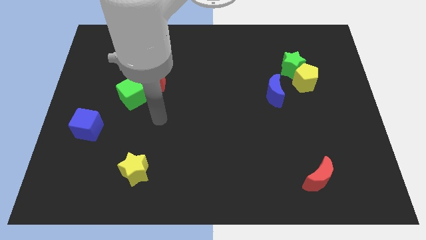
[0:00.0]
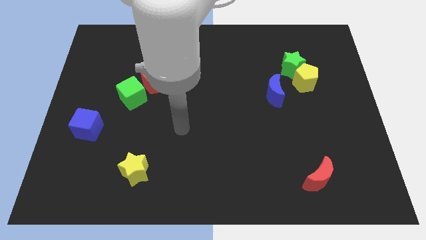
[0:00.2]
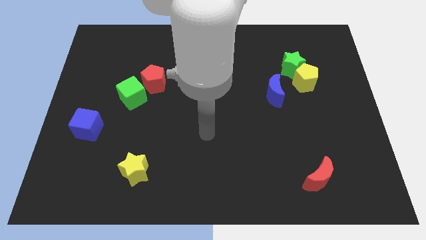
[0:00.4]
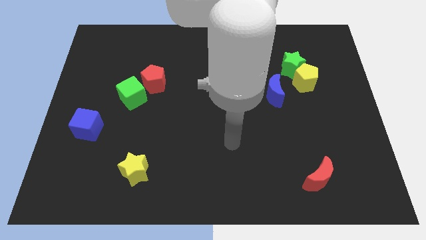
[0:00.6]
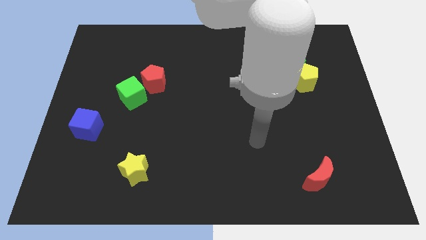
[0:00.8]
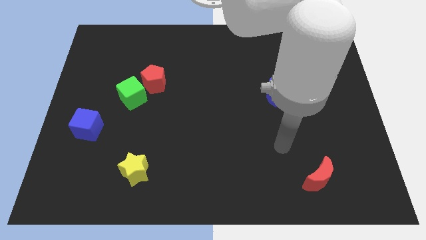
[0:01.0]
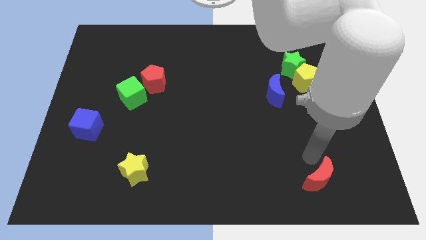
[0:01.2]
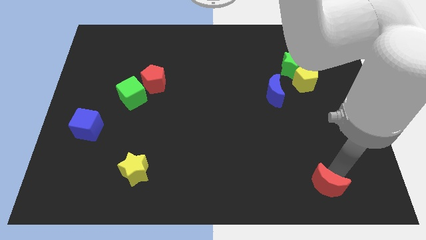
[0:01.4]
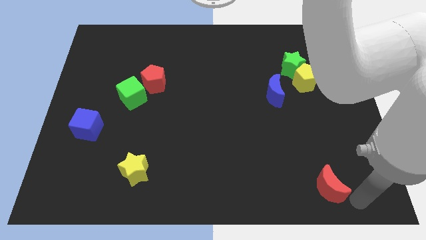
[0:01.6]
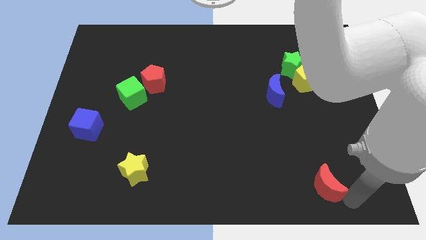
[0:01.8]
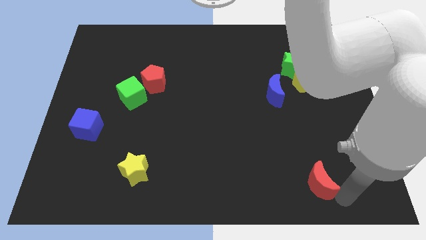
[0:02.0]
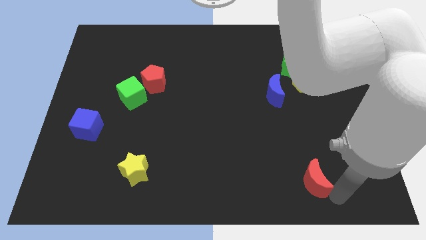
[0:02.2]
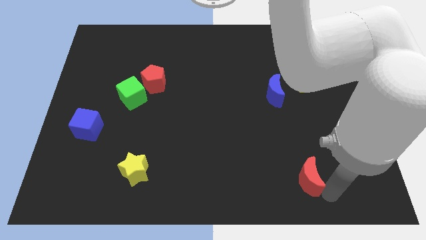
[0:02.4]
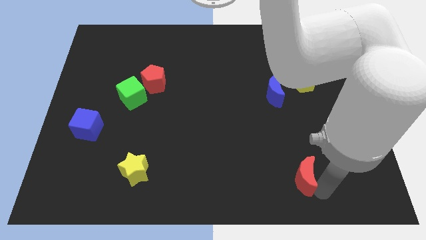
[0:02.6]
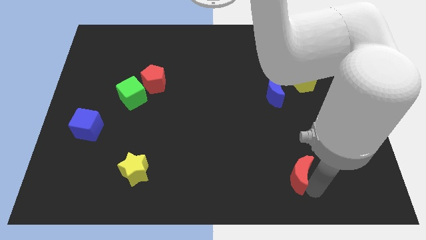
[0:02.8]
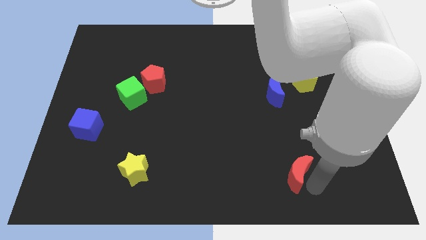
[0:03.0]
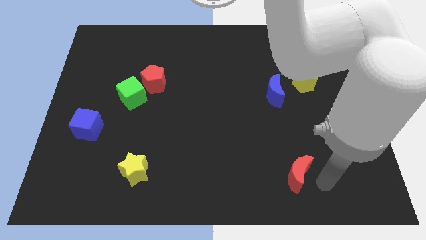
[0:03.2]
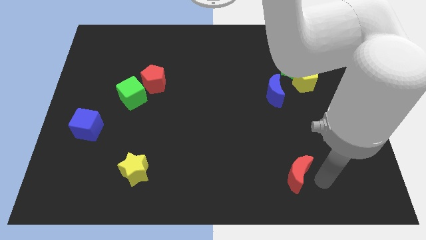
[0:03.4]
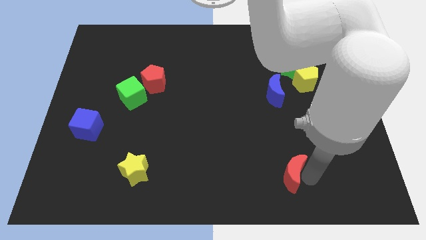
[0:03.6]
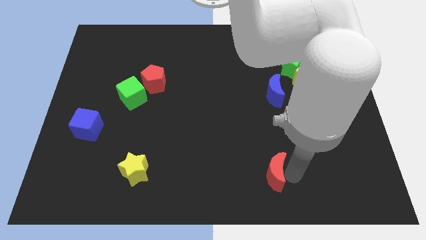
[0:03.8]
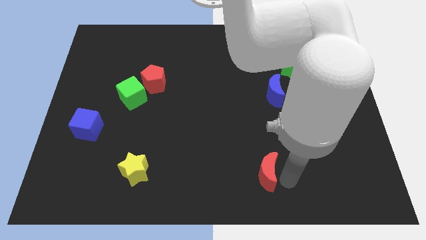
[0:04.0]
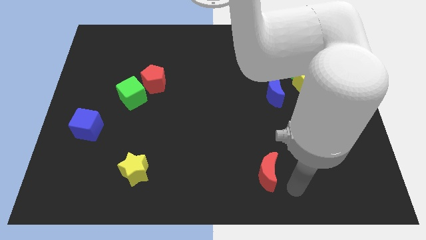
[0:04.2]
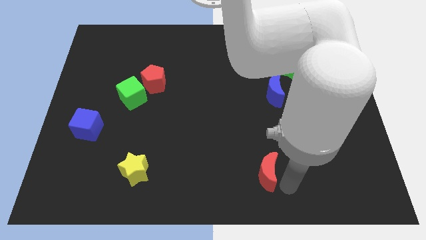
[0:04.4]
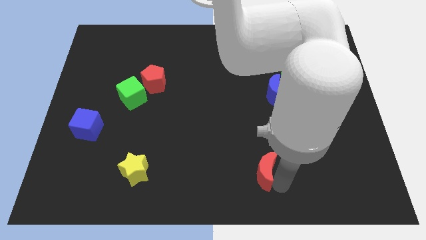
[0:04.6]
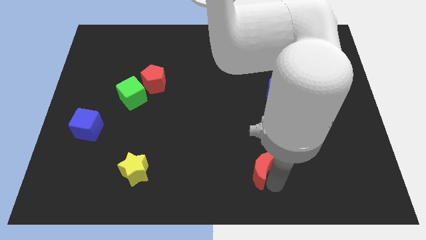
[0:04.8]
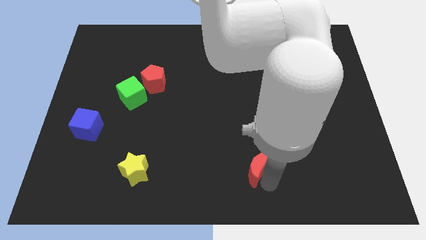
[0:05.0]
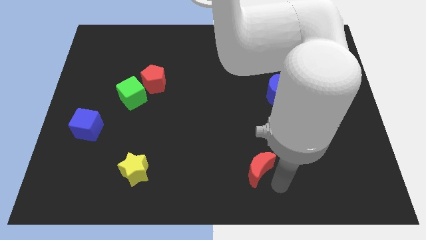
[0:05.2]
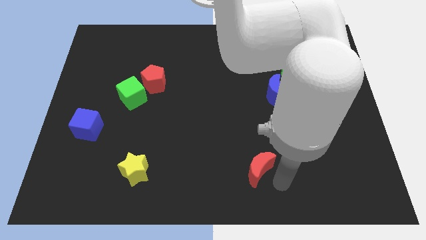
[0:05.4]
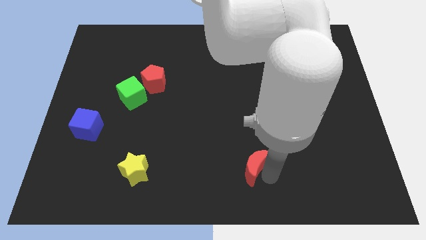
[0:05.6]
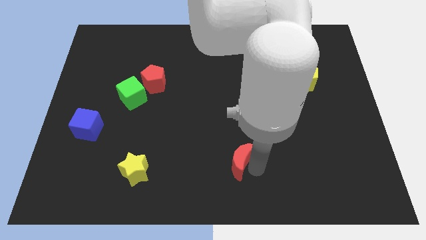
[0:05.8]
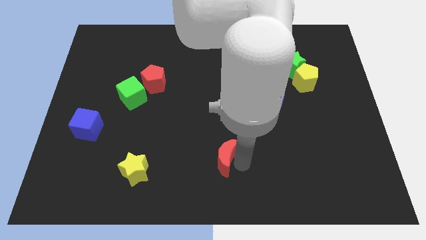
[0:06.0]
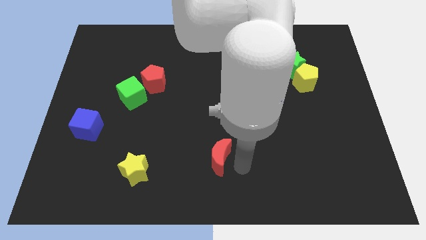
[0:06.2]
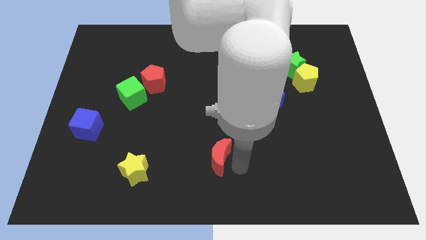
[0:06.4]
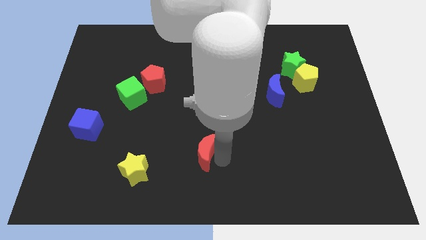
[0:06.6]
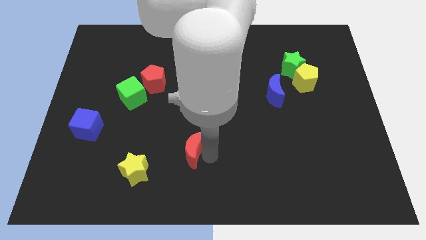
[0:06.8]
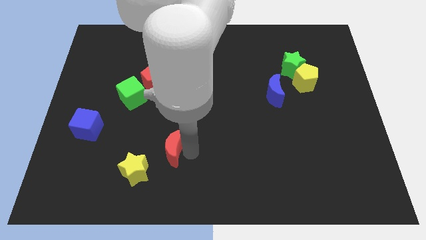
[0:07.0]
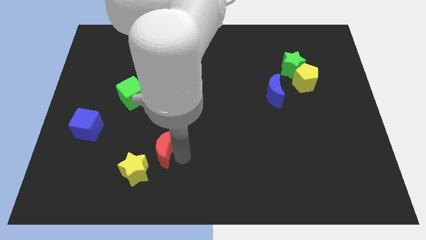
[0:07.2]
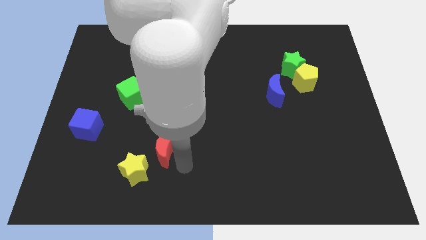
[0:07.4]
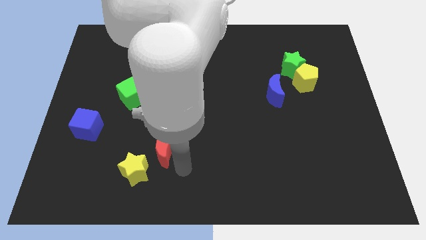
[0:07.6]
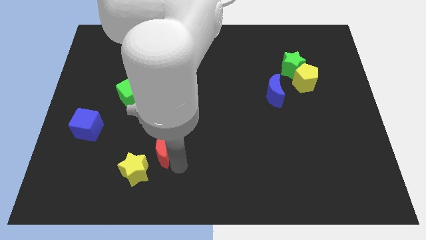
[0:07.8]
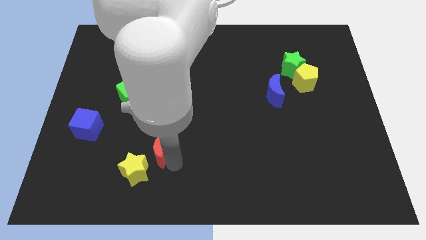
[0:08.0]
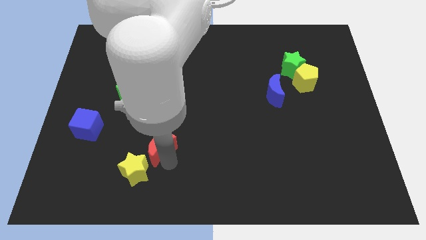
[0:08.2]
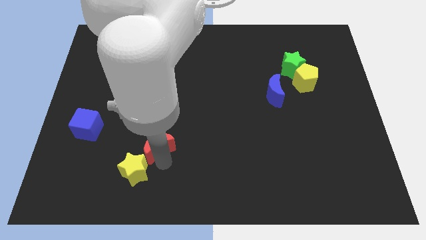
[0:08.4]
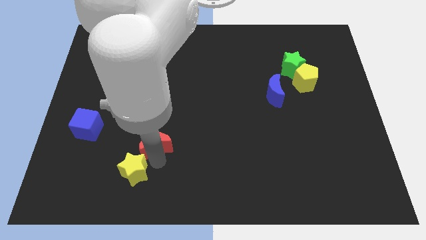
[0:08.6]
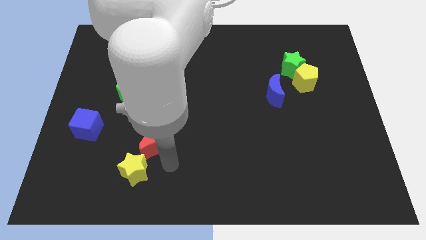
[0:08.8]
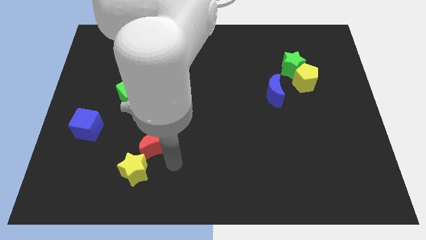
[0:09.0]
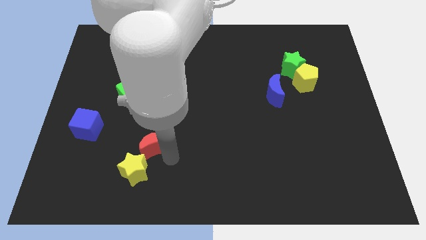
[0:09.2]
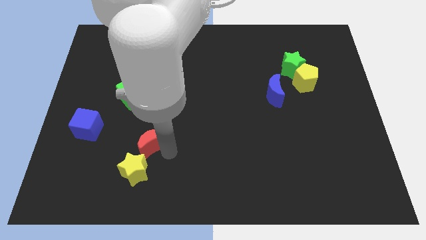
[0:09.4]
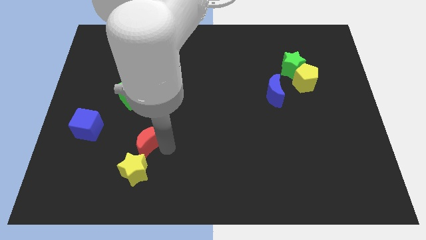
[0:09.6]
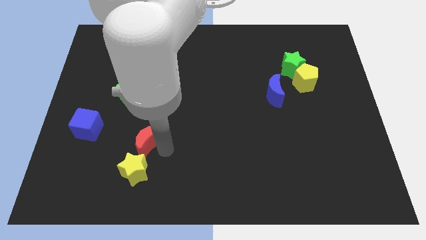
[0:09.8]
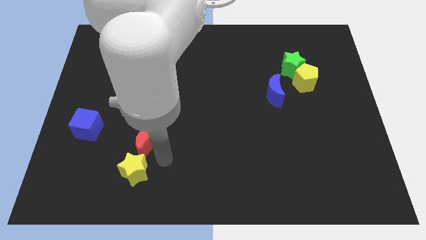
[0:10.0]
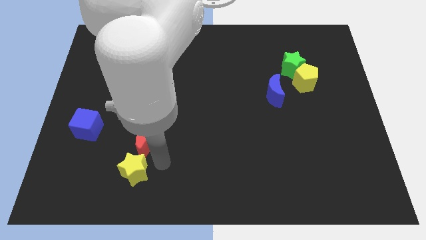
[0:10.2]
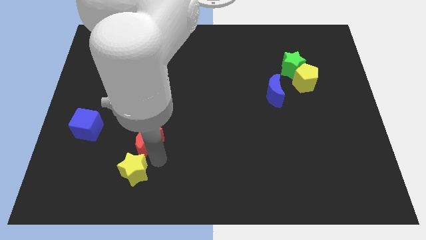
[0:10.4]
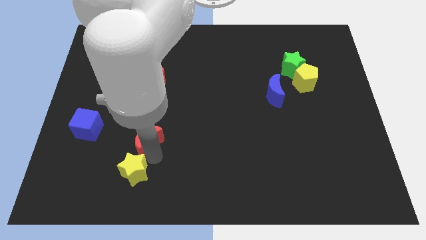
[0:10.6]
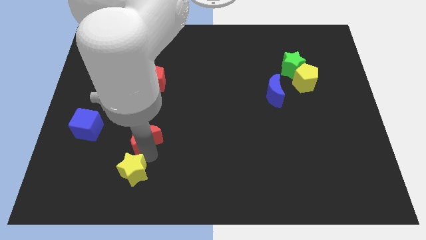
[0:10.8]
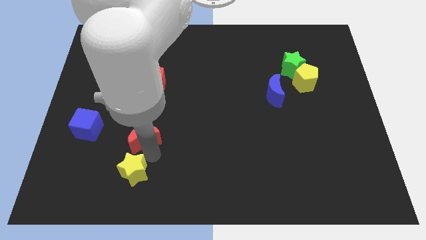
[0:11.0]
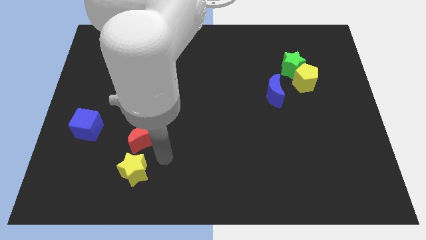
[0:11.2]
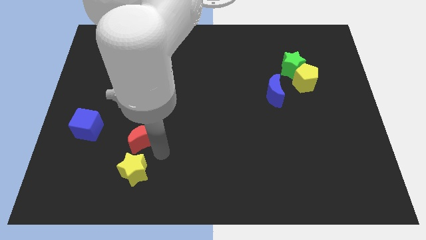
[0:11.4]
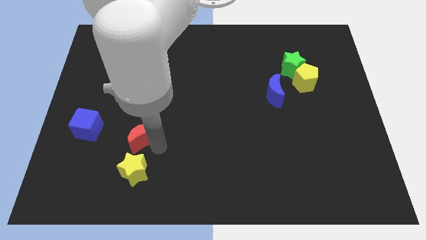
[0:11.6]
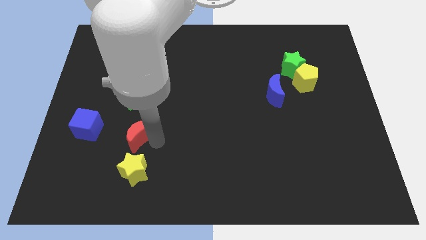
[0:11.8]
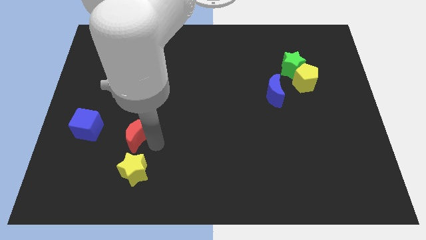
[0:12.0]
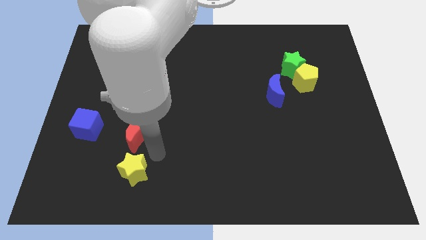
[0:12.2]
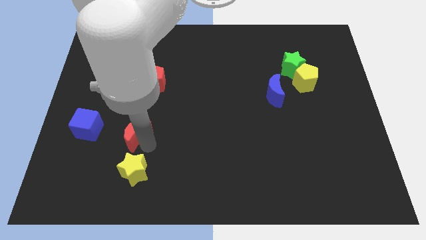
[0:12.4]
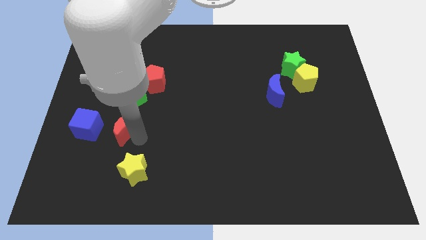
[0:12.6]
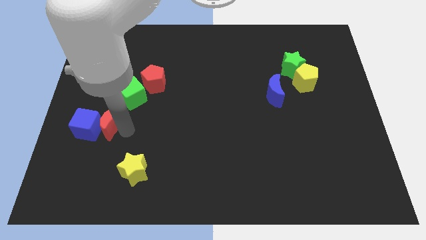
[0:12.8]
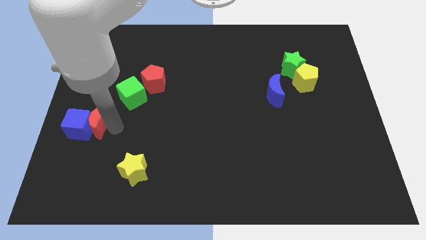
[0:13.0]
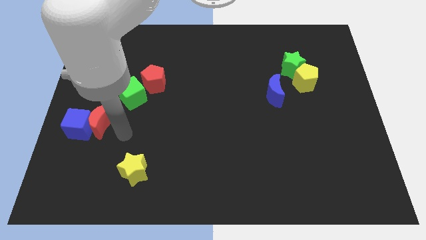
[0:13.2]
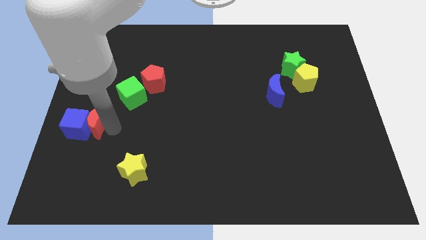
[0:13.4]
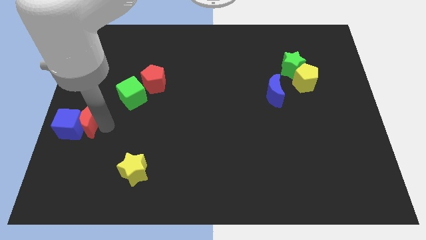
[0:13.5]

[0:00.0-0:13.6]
move the red moon to the center left
